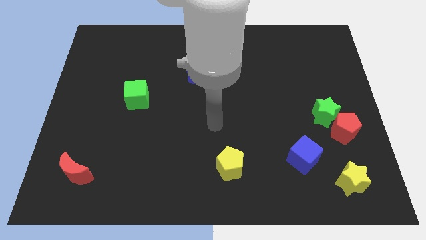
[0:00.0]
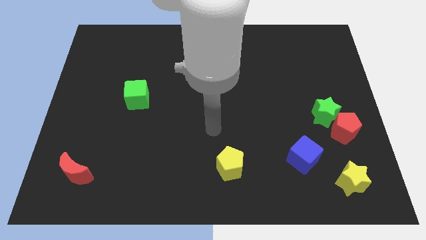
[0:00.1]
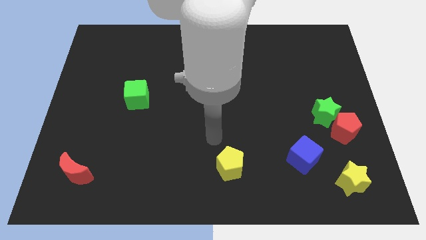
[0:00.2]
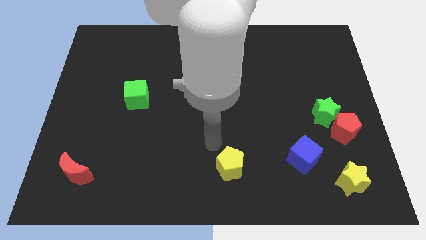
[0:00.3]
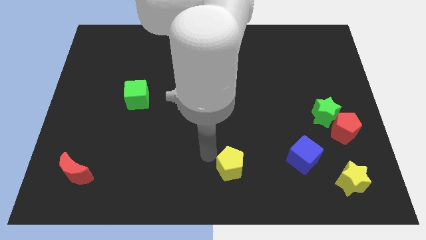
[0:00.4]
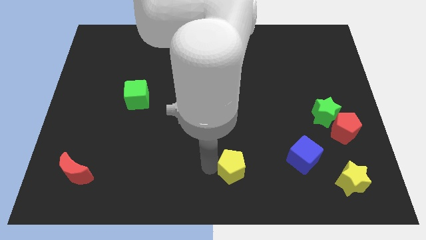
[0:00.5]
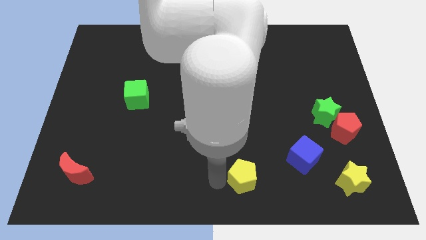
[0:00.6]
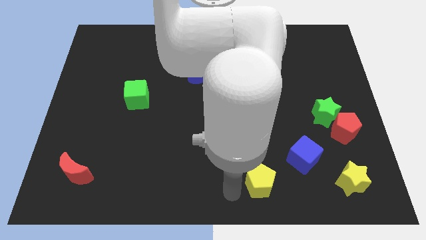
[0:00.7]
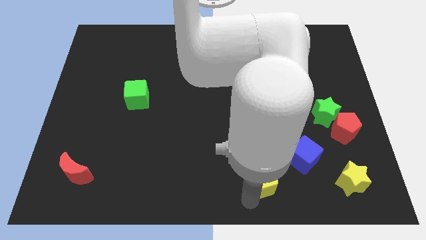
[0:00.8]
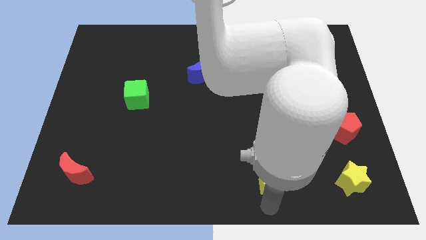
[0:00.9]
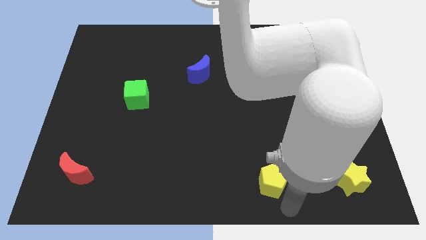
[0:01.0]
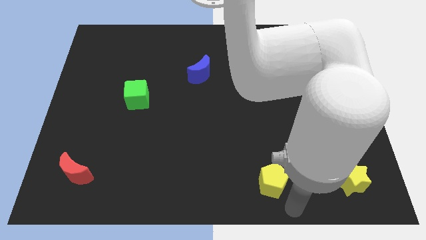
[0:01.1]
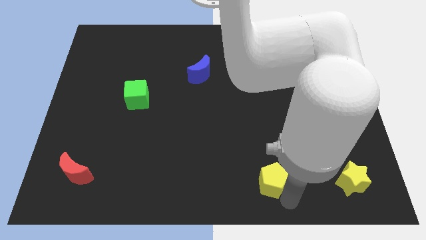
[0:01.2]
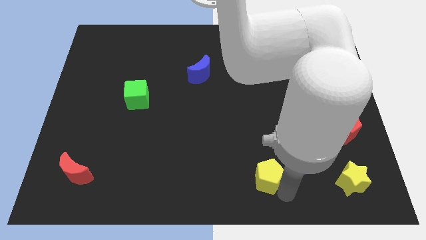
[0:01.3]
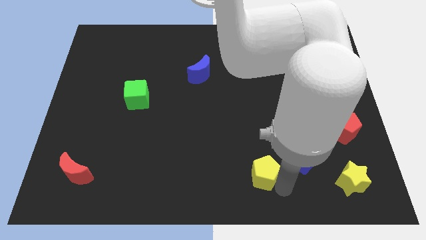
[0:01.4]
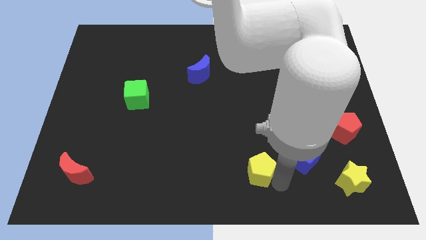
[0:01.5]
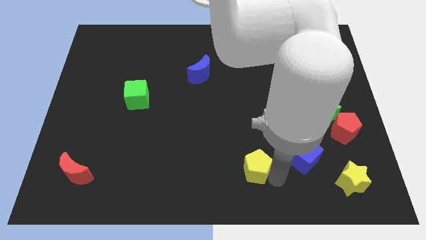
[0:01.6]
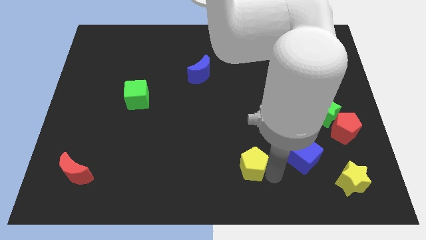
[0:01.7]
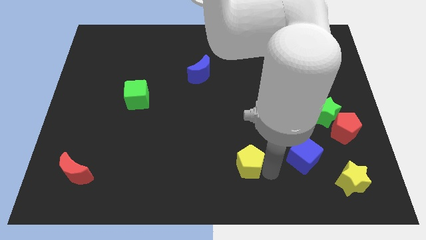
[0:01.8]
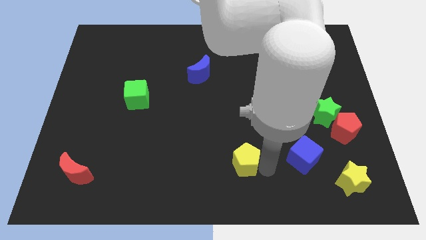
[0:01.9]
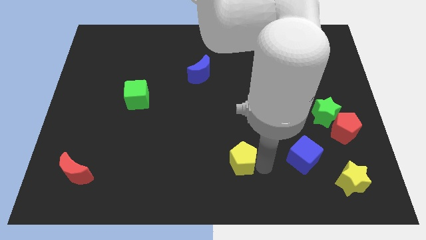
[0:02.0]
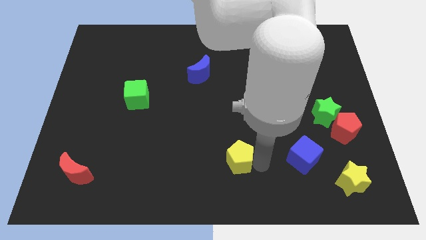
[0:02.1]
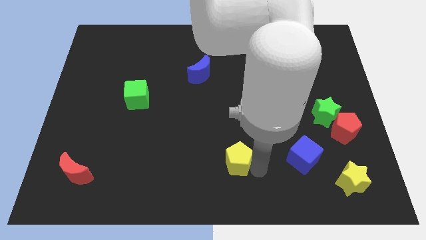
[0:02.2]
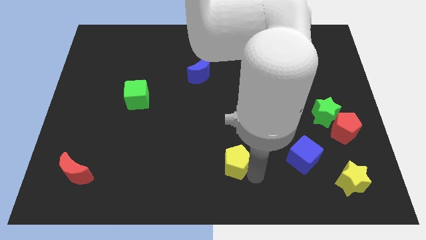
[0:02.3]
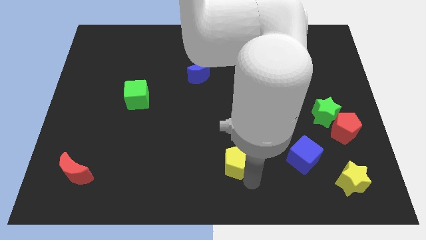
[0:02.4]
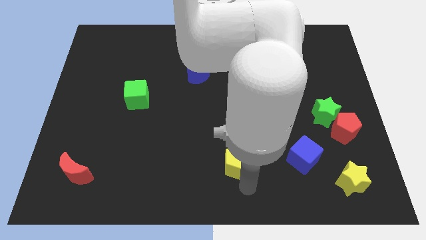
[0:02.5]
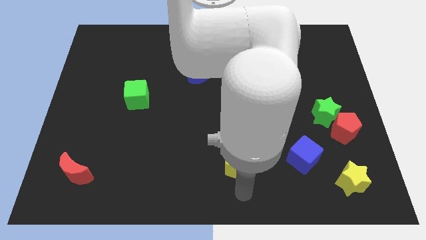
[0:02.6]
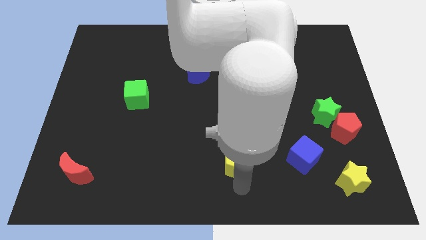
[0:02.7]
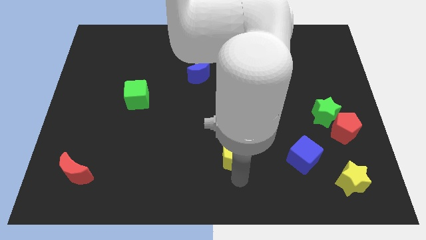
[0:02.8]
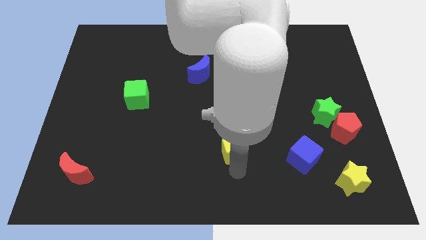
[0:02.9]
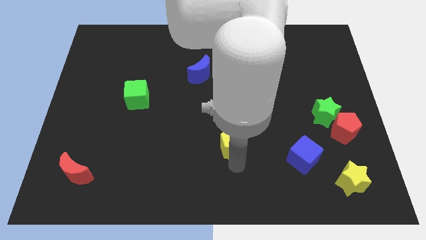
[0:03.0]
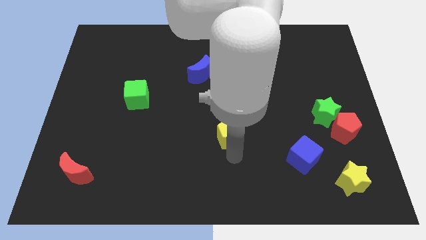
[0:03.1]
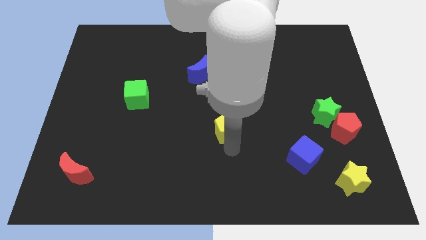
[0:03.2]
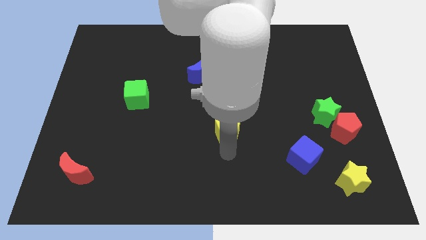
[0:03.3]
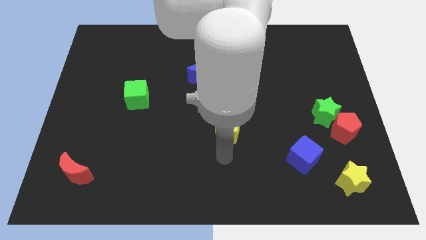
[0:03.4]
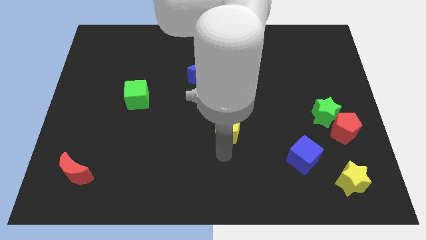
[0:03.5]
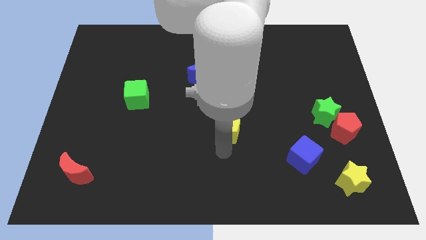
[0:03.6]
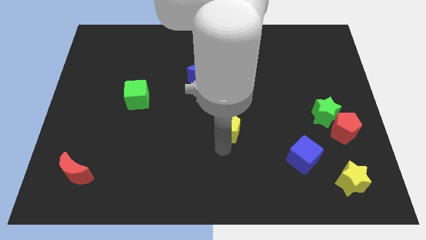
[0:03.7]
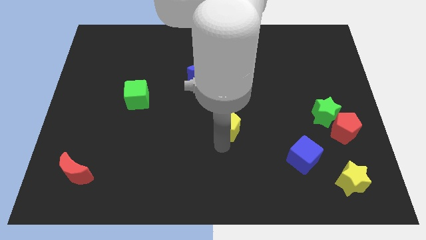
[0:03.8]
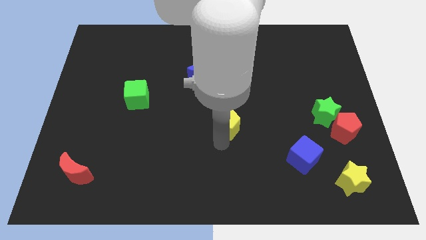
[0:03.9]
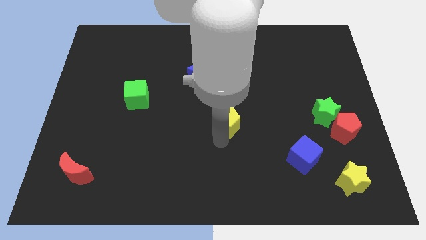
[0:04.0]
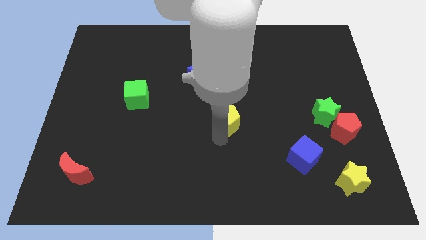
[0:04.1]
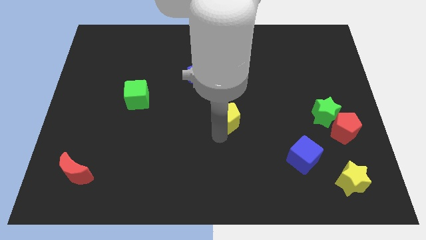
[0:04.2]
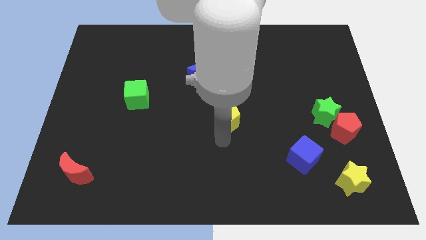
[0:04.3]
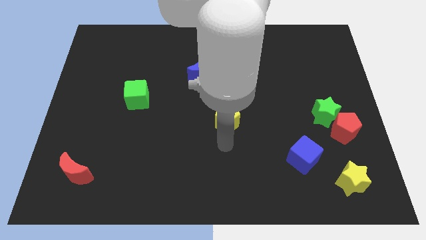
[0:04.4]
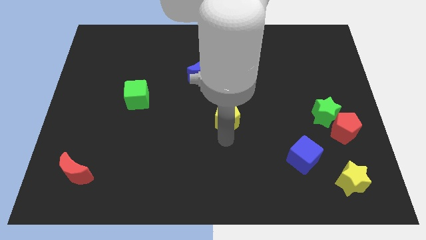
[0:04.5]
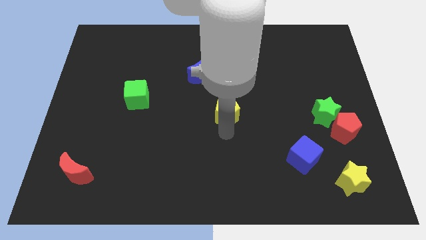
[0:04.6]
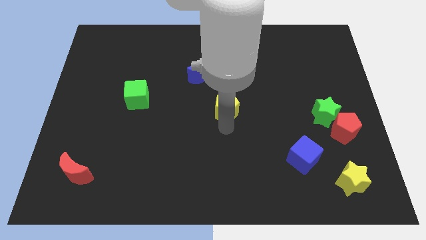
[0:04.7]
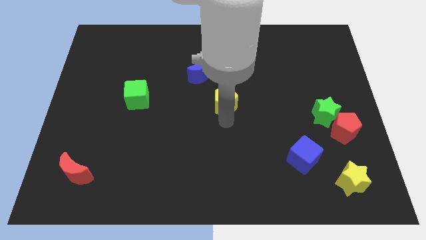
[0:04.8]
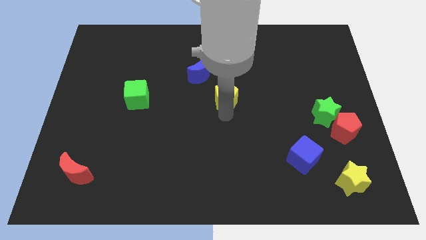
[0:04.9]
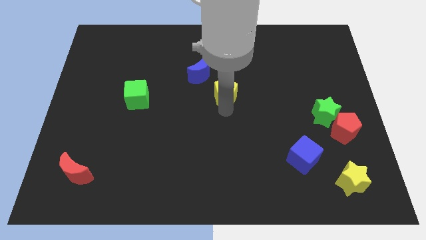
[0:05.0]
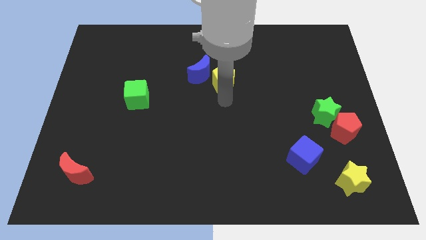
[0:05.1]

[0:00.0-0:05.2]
slide the yellow pentagon up

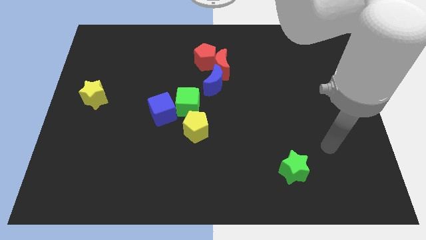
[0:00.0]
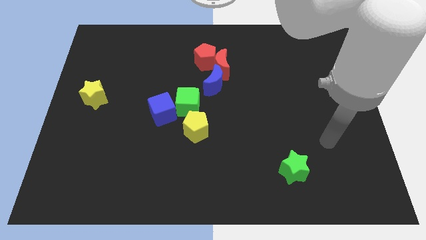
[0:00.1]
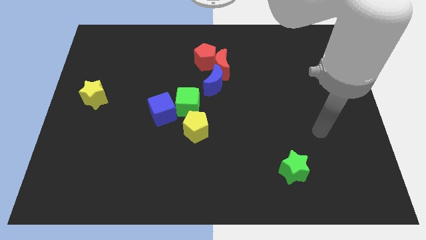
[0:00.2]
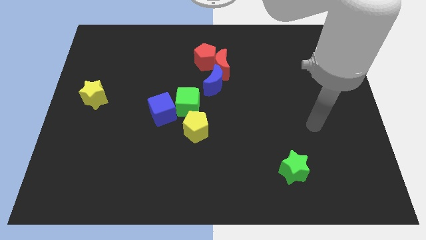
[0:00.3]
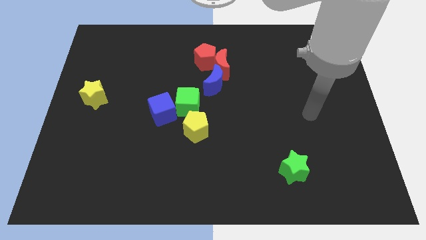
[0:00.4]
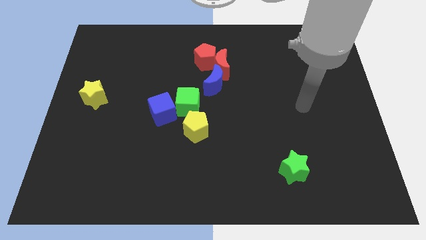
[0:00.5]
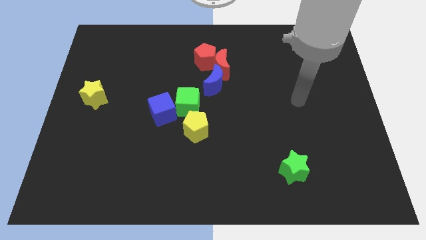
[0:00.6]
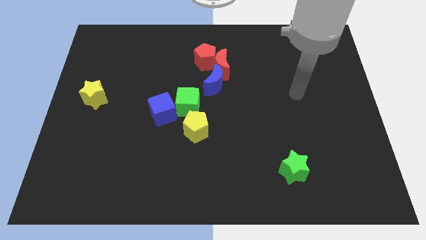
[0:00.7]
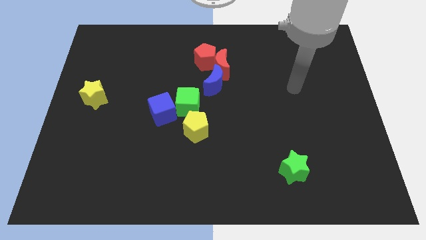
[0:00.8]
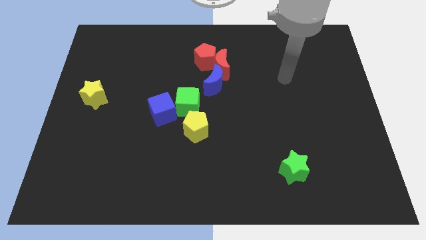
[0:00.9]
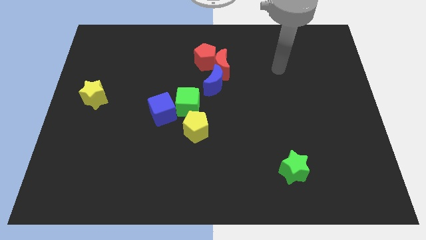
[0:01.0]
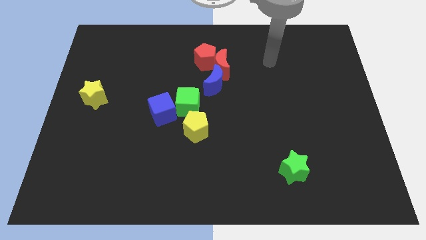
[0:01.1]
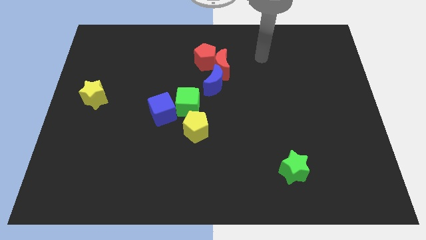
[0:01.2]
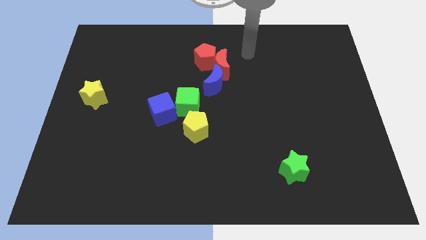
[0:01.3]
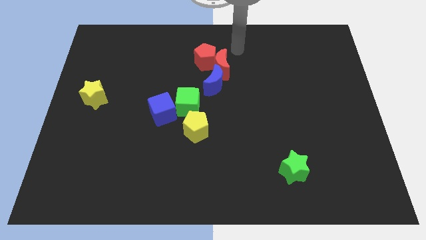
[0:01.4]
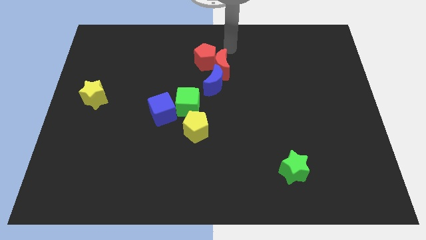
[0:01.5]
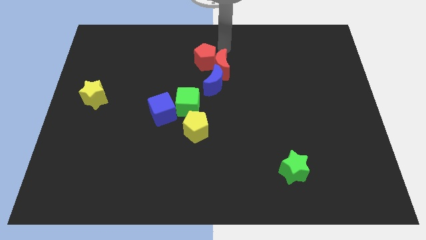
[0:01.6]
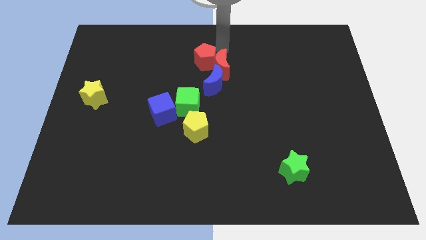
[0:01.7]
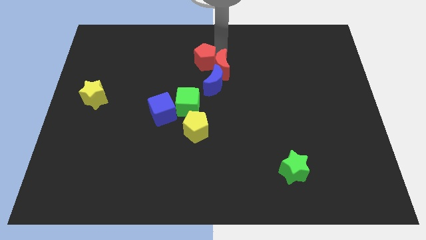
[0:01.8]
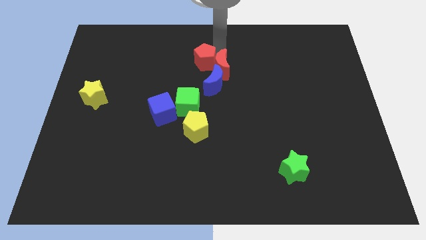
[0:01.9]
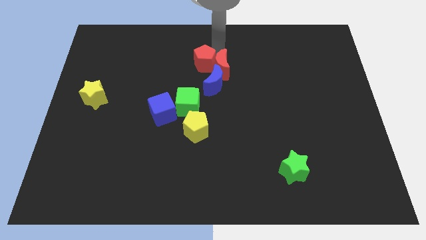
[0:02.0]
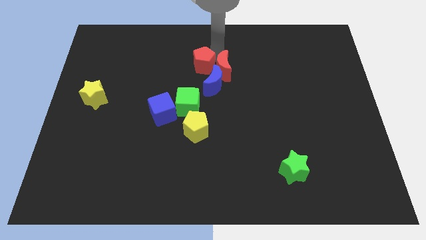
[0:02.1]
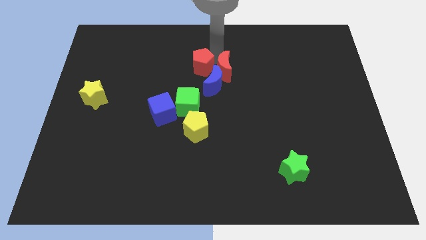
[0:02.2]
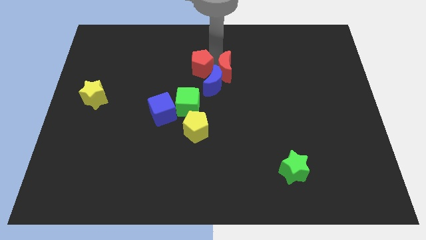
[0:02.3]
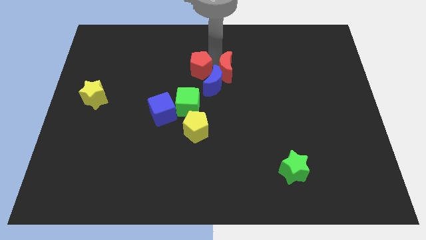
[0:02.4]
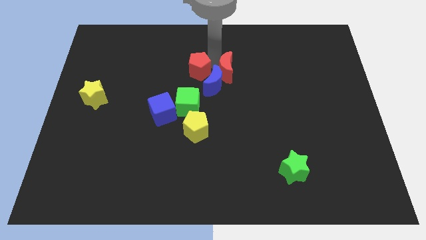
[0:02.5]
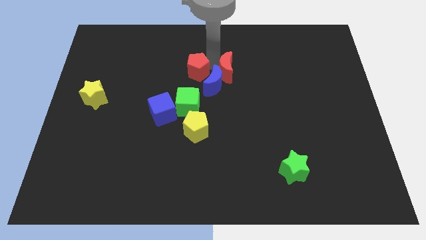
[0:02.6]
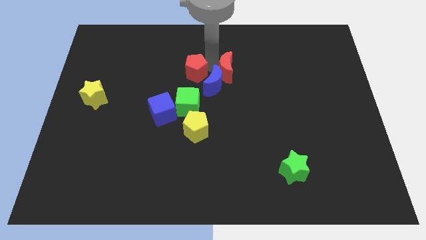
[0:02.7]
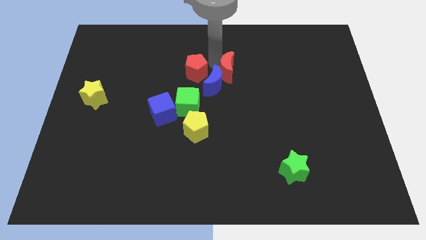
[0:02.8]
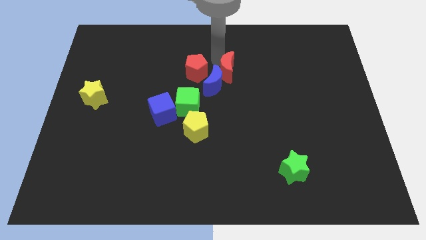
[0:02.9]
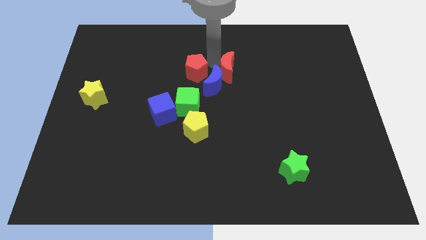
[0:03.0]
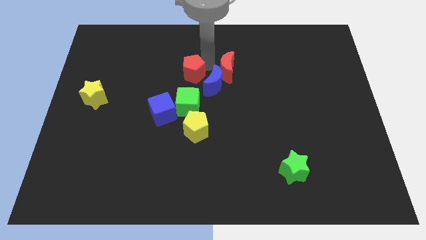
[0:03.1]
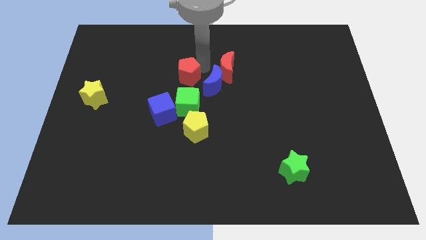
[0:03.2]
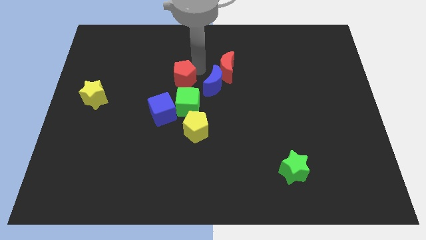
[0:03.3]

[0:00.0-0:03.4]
move the red pentagon a bit down and to the left
